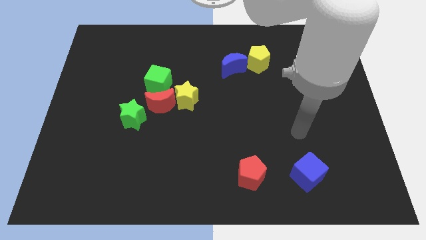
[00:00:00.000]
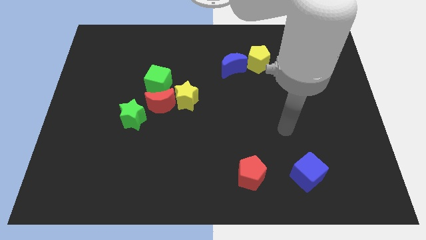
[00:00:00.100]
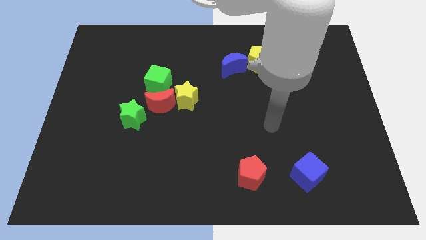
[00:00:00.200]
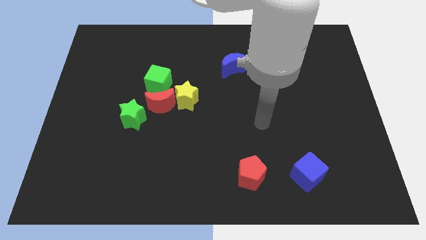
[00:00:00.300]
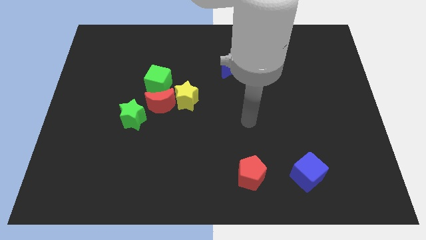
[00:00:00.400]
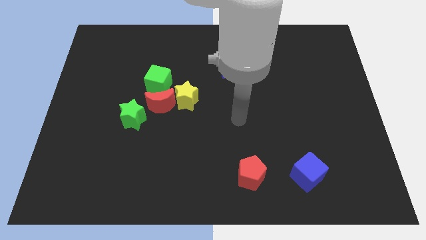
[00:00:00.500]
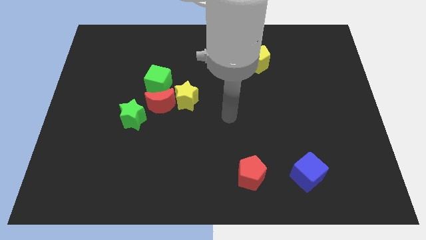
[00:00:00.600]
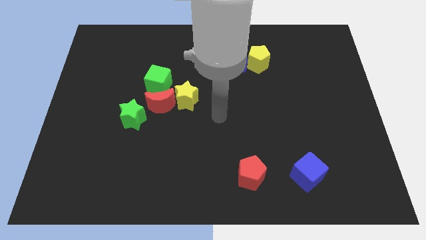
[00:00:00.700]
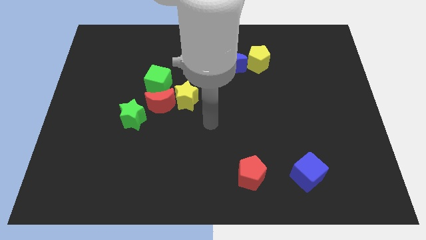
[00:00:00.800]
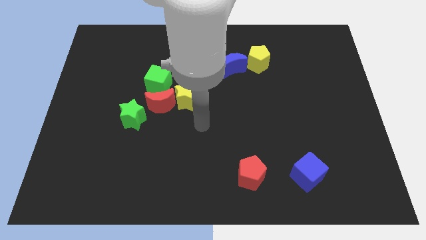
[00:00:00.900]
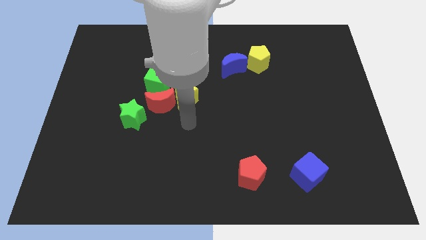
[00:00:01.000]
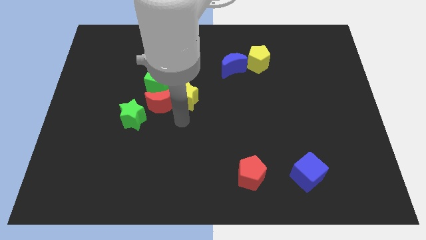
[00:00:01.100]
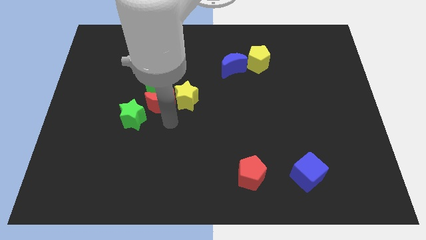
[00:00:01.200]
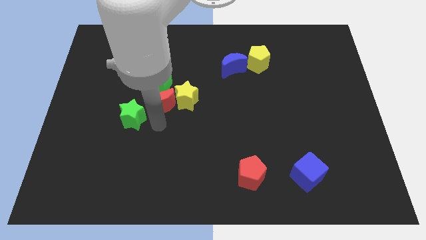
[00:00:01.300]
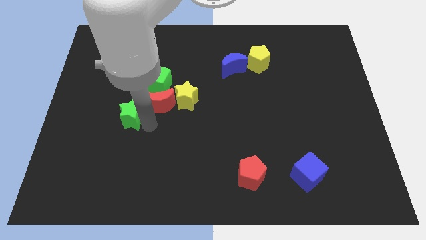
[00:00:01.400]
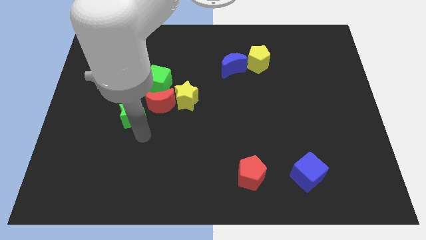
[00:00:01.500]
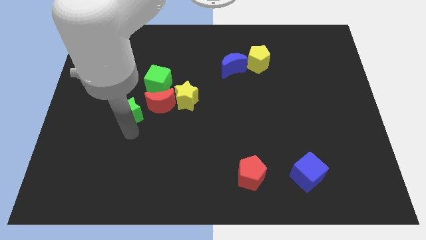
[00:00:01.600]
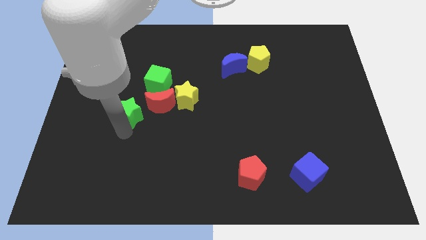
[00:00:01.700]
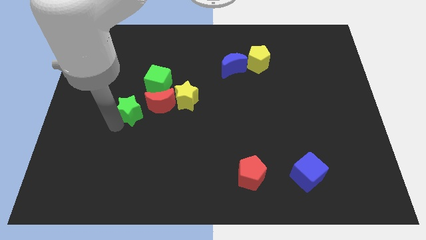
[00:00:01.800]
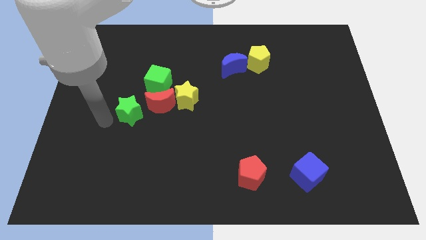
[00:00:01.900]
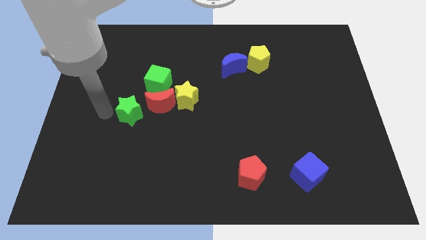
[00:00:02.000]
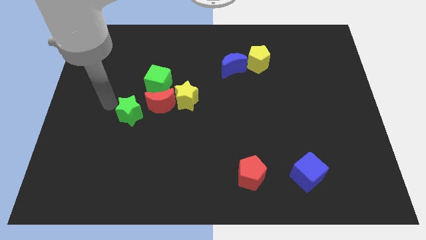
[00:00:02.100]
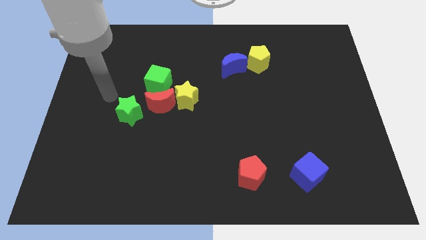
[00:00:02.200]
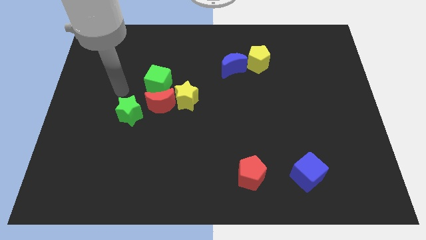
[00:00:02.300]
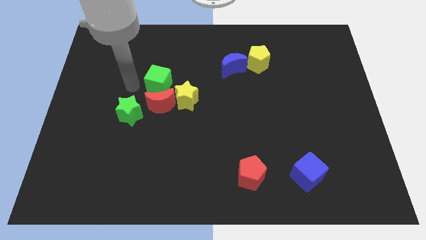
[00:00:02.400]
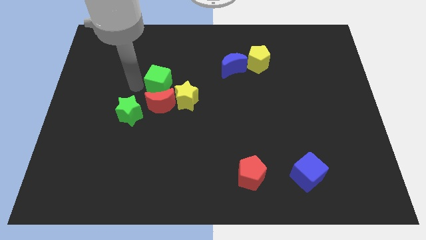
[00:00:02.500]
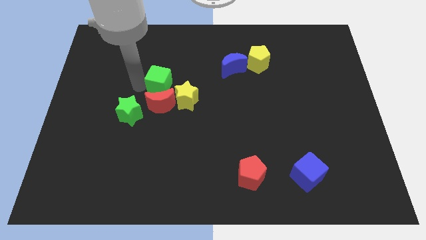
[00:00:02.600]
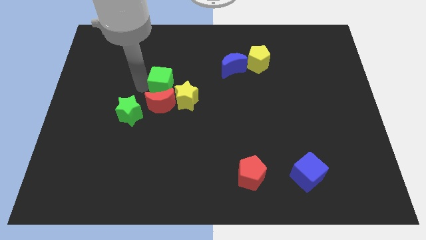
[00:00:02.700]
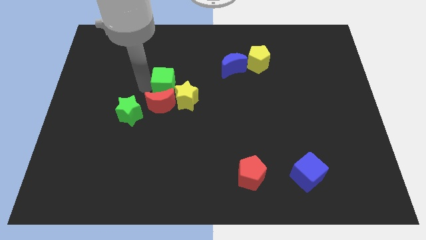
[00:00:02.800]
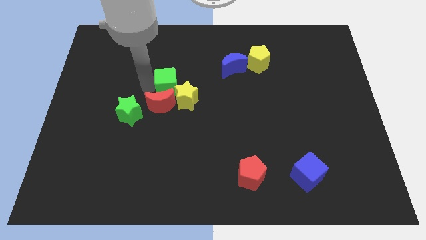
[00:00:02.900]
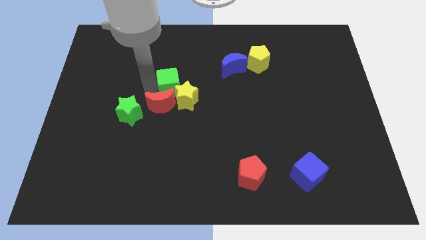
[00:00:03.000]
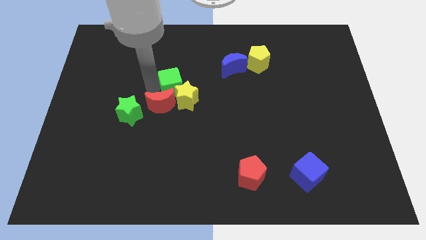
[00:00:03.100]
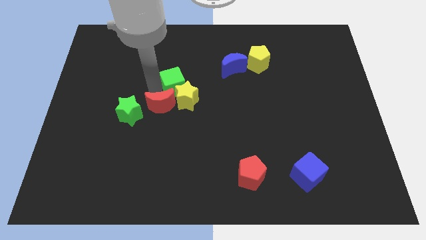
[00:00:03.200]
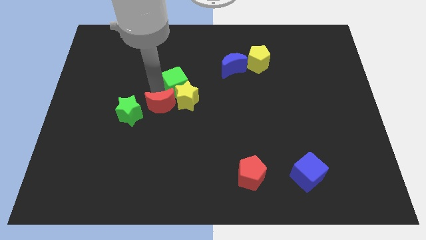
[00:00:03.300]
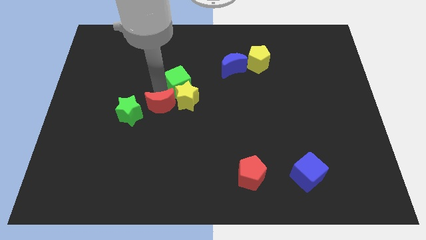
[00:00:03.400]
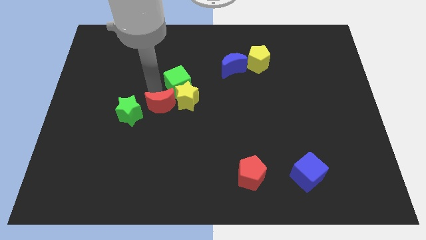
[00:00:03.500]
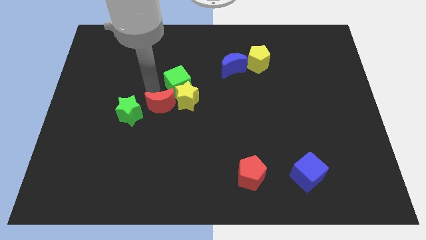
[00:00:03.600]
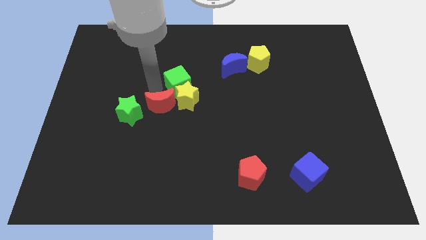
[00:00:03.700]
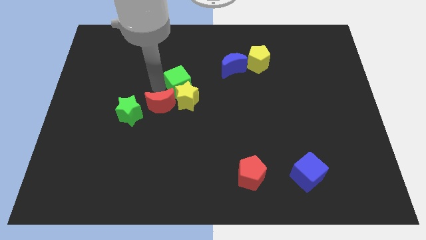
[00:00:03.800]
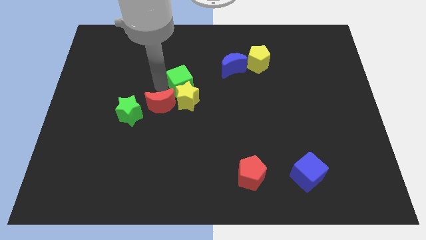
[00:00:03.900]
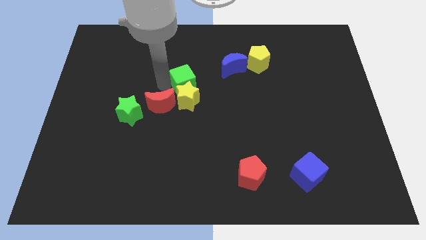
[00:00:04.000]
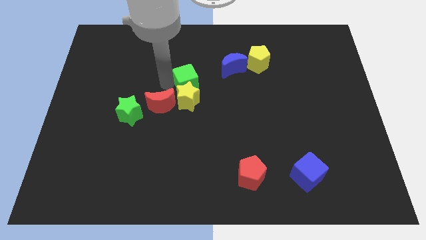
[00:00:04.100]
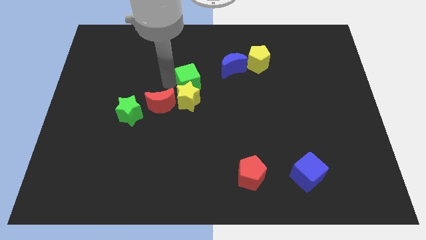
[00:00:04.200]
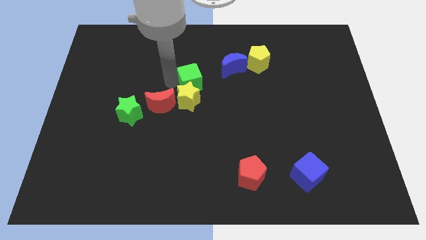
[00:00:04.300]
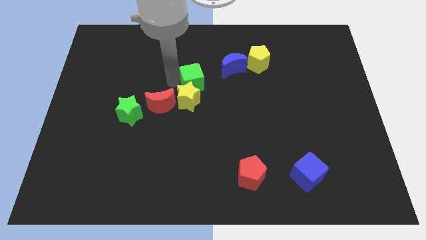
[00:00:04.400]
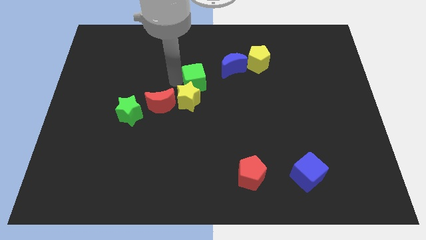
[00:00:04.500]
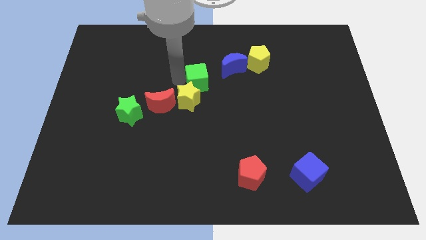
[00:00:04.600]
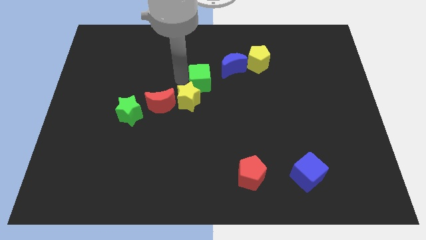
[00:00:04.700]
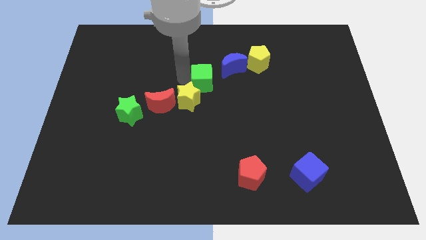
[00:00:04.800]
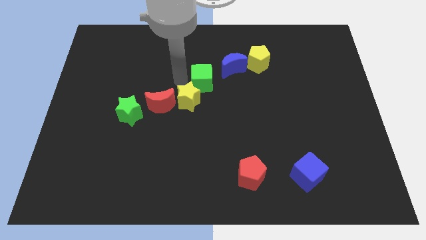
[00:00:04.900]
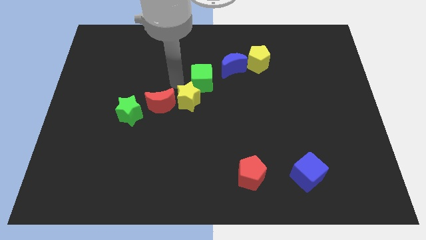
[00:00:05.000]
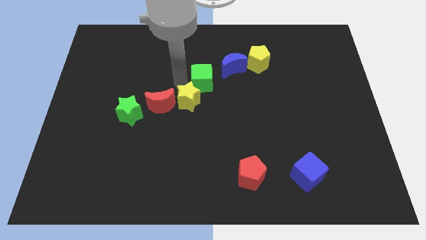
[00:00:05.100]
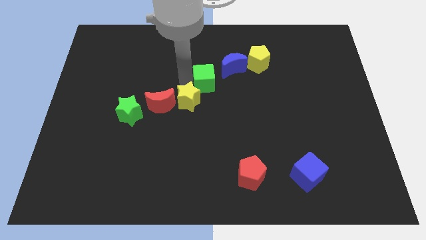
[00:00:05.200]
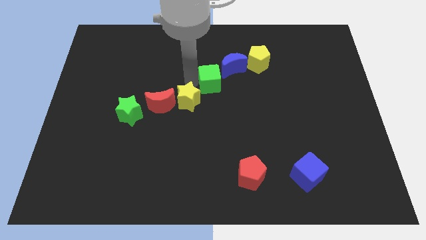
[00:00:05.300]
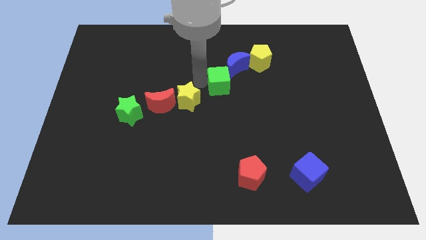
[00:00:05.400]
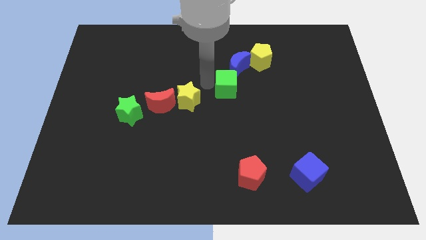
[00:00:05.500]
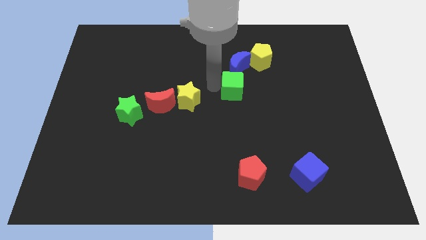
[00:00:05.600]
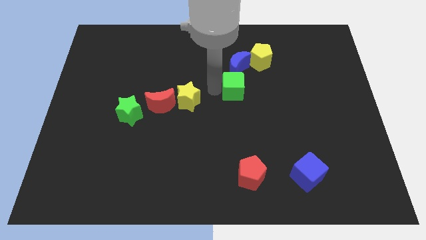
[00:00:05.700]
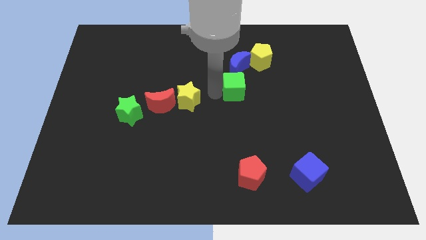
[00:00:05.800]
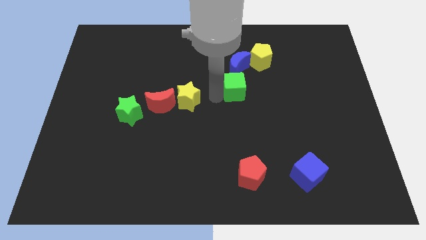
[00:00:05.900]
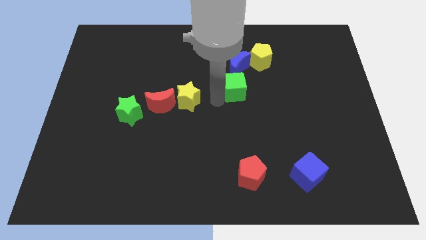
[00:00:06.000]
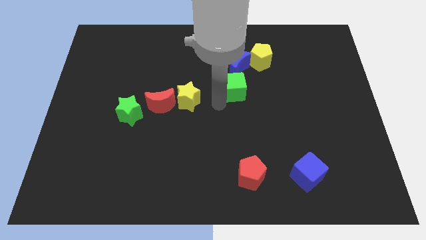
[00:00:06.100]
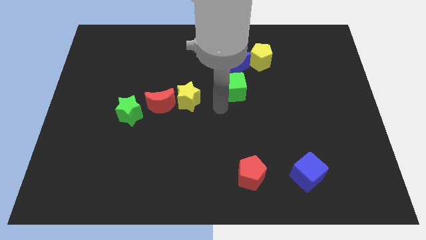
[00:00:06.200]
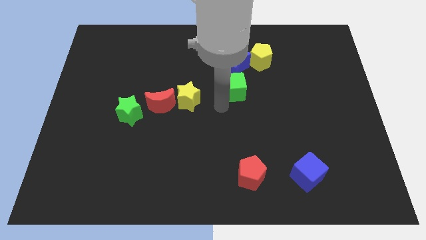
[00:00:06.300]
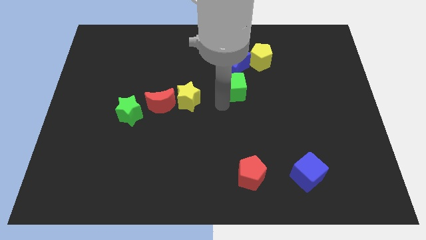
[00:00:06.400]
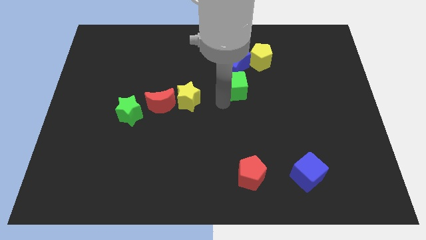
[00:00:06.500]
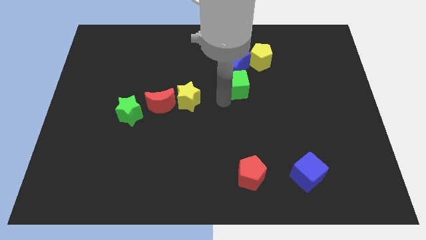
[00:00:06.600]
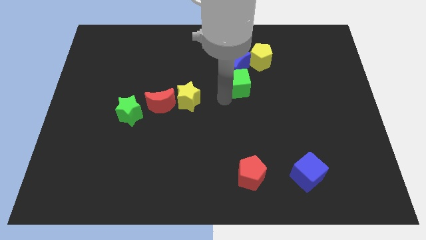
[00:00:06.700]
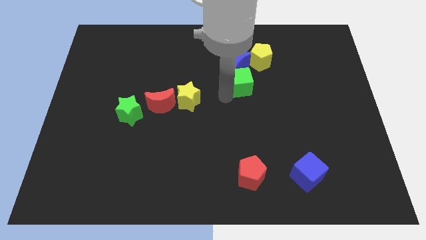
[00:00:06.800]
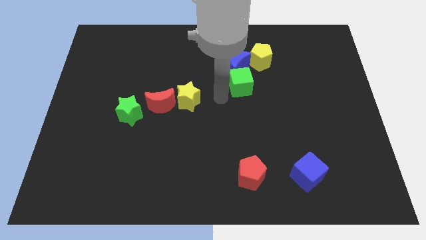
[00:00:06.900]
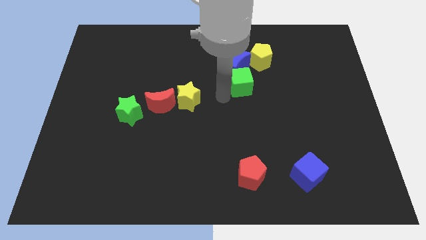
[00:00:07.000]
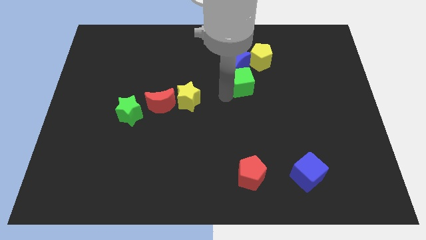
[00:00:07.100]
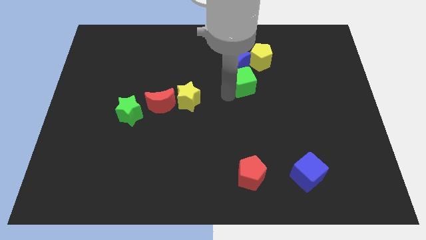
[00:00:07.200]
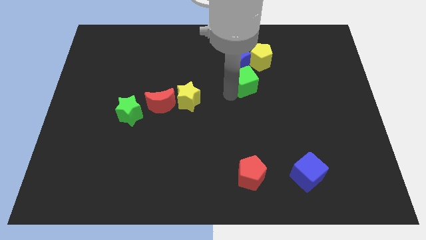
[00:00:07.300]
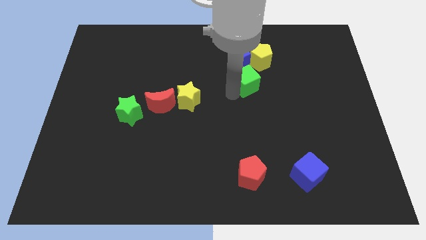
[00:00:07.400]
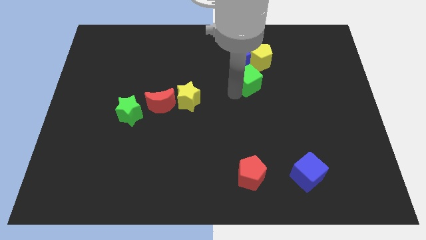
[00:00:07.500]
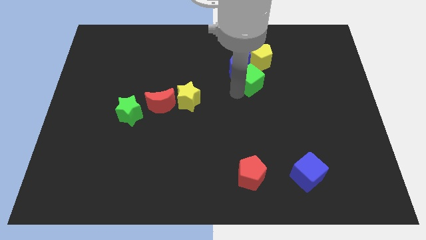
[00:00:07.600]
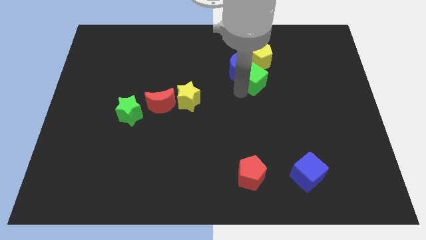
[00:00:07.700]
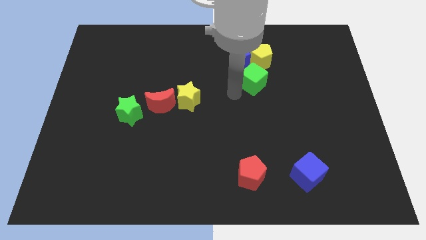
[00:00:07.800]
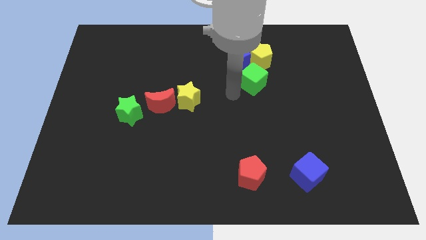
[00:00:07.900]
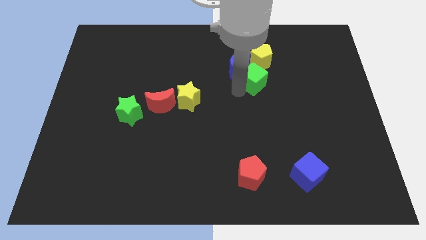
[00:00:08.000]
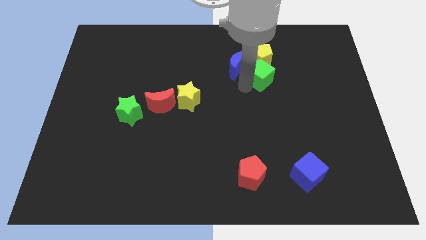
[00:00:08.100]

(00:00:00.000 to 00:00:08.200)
put the green cube to the right of the blue moon
